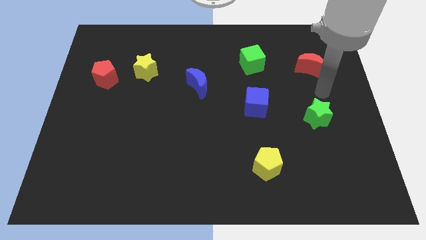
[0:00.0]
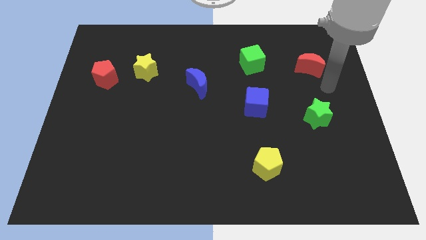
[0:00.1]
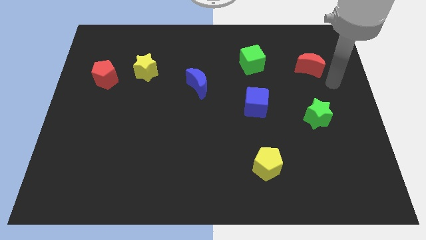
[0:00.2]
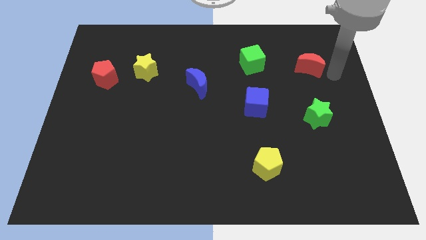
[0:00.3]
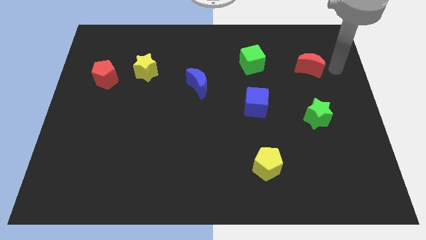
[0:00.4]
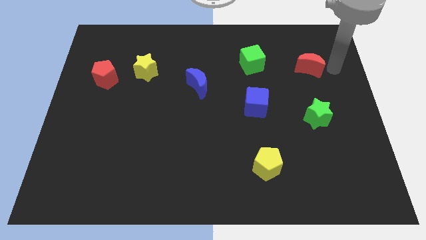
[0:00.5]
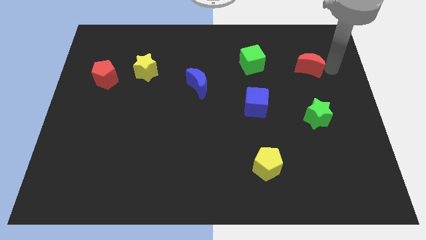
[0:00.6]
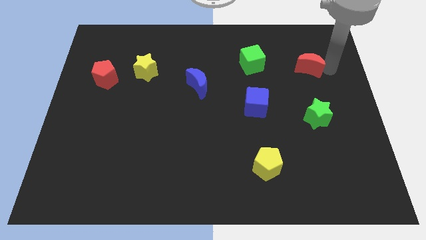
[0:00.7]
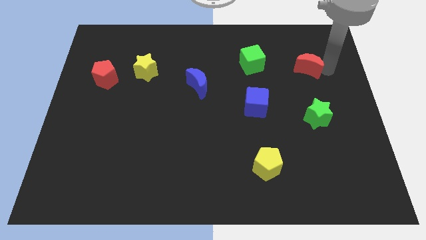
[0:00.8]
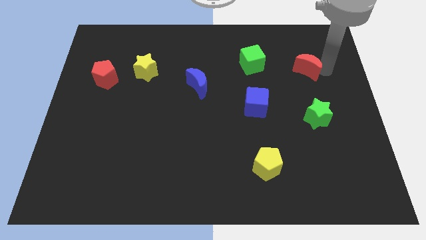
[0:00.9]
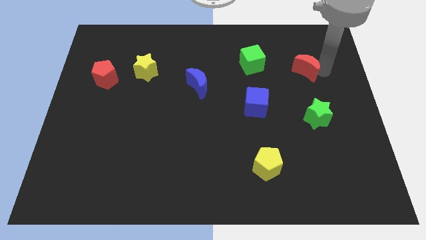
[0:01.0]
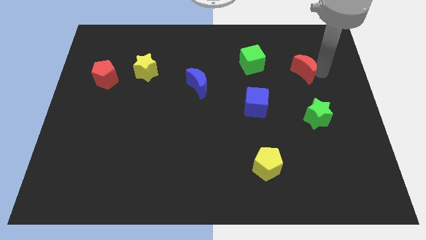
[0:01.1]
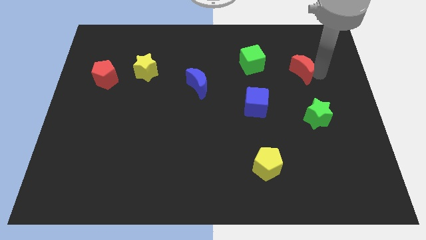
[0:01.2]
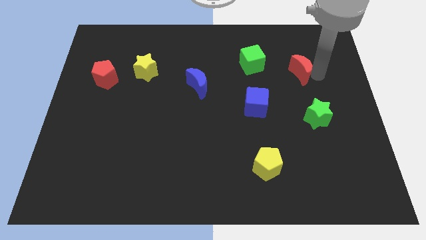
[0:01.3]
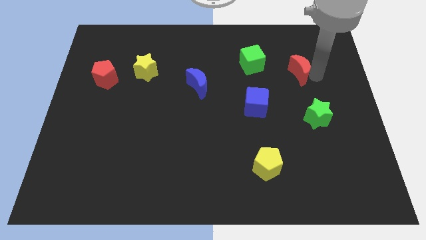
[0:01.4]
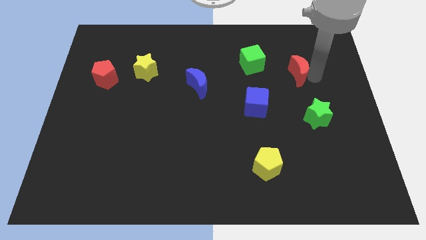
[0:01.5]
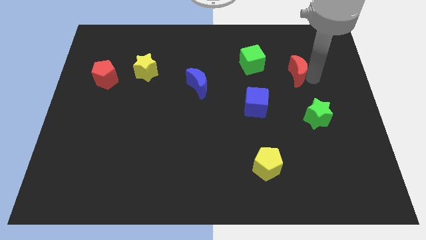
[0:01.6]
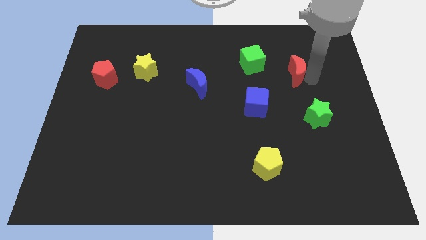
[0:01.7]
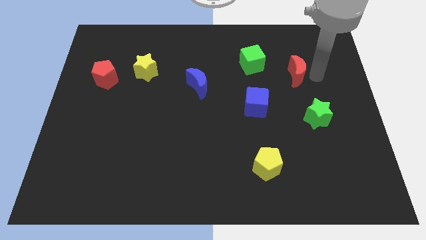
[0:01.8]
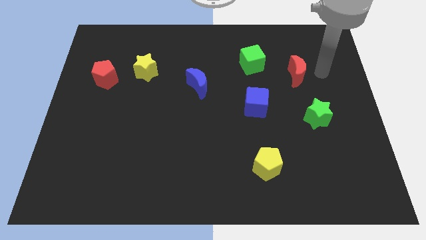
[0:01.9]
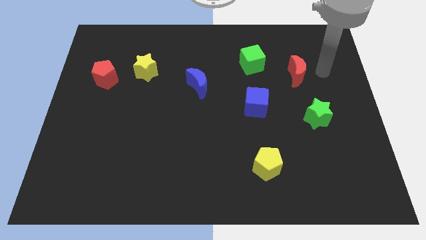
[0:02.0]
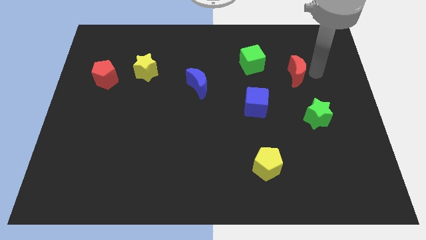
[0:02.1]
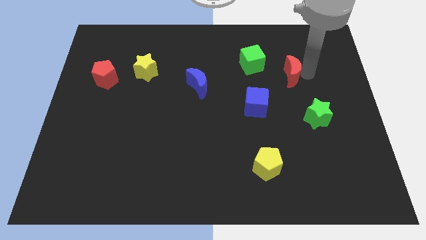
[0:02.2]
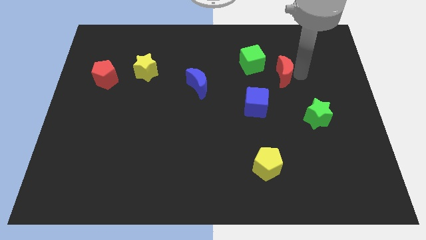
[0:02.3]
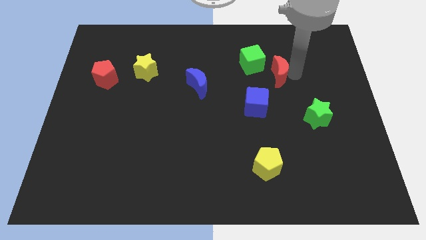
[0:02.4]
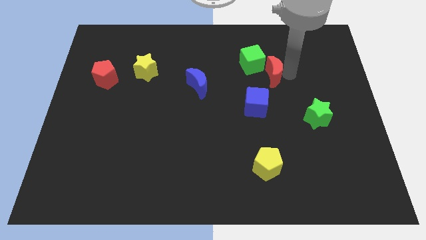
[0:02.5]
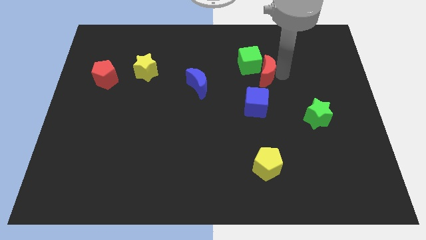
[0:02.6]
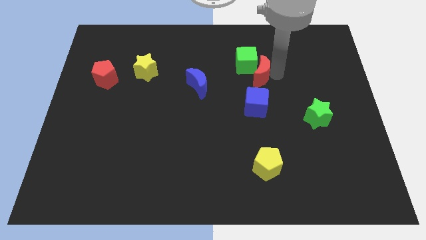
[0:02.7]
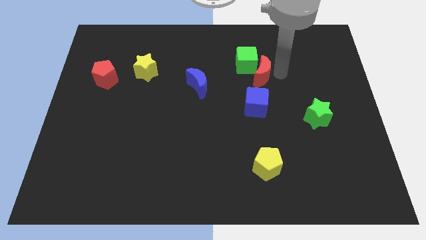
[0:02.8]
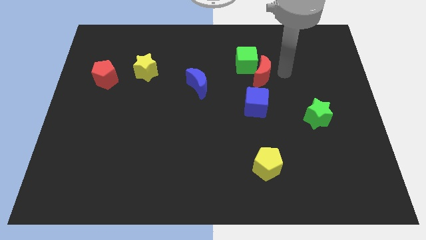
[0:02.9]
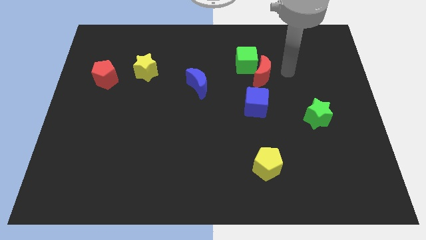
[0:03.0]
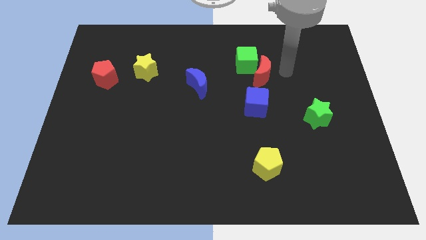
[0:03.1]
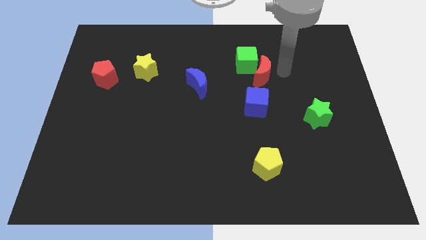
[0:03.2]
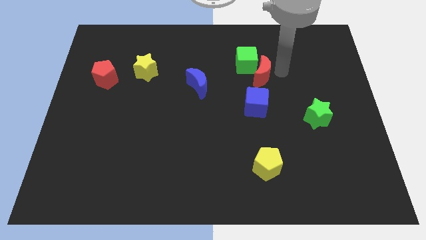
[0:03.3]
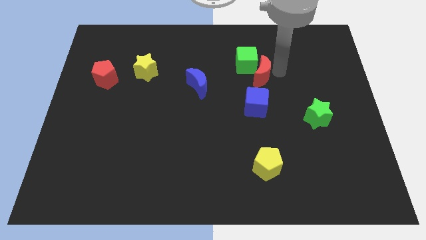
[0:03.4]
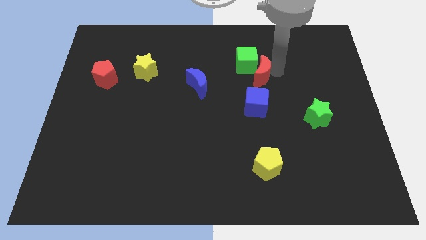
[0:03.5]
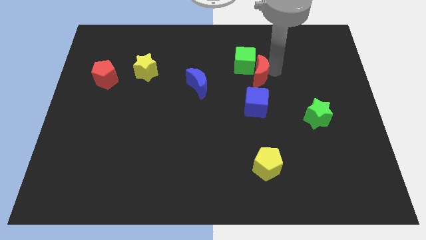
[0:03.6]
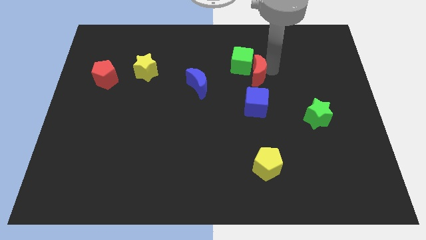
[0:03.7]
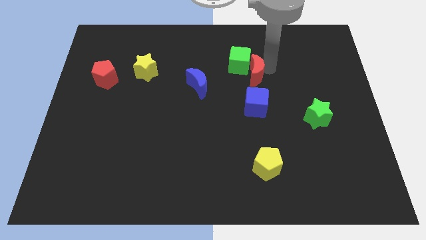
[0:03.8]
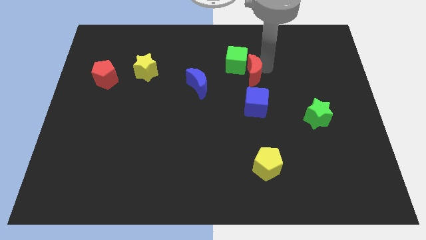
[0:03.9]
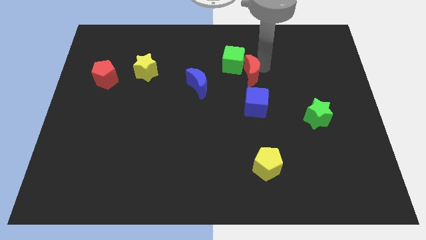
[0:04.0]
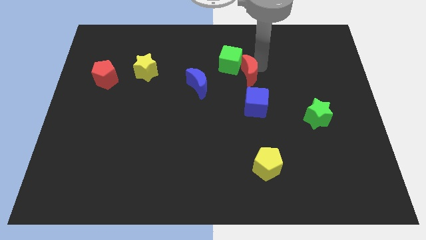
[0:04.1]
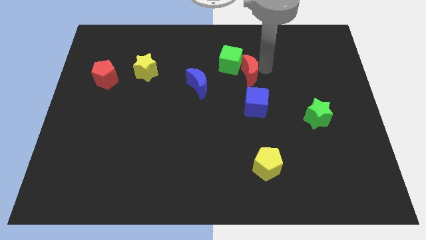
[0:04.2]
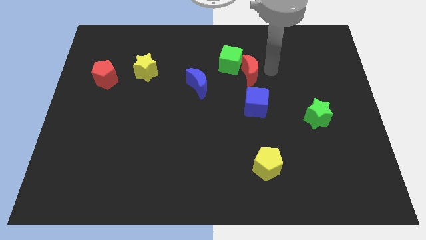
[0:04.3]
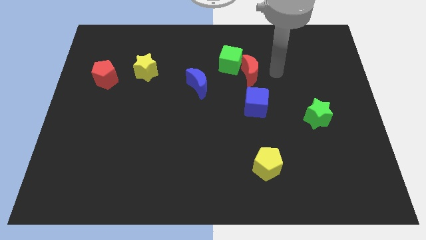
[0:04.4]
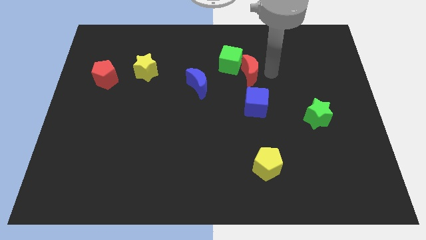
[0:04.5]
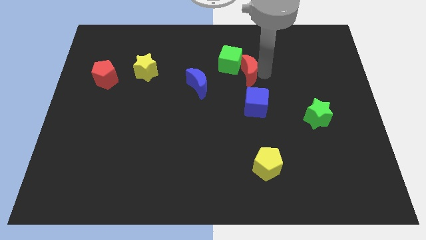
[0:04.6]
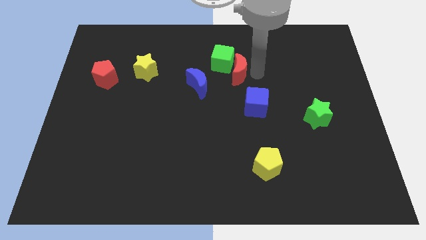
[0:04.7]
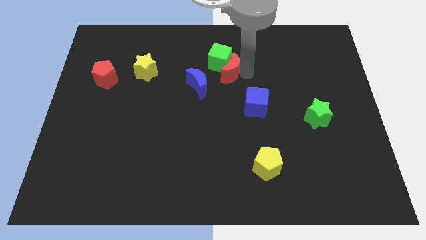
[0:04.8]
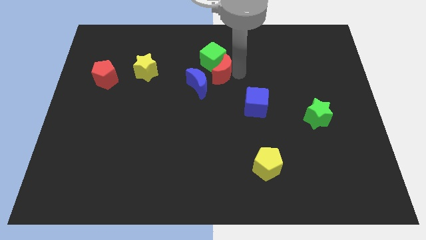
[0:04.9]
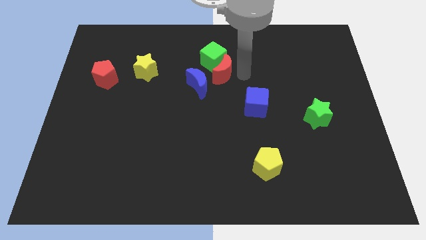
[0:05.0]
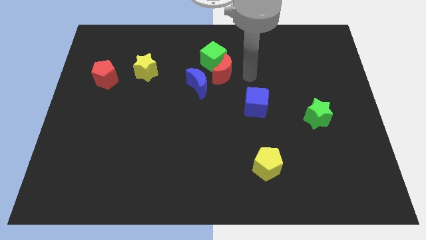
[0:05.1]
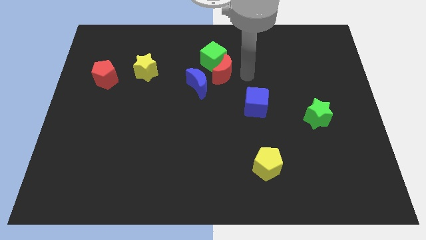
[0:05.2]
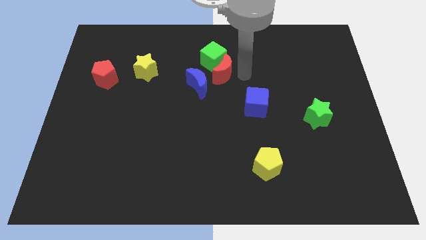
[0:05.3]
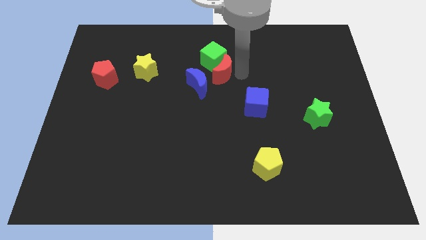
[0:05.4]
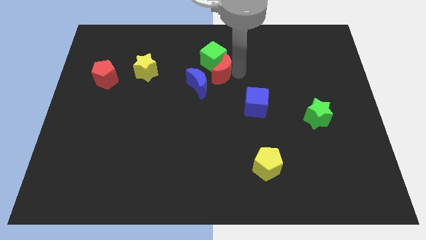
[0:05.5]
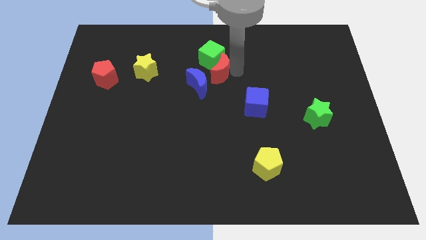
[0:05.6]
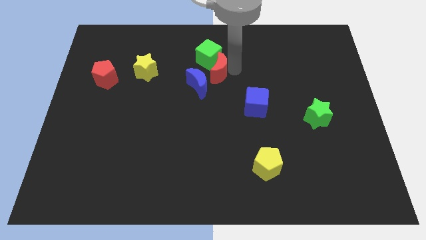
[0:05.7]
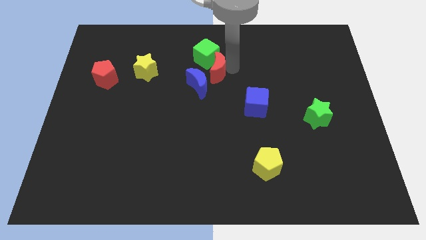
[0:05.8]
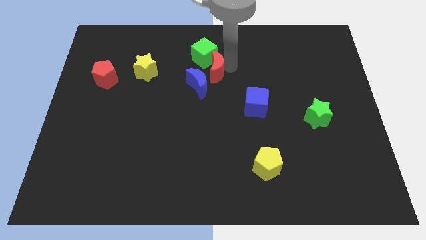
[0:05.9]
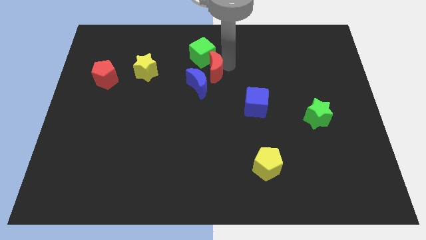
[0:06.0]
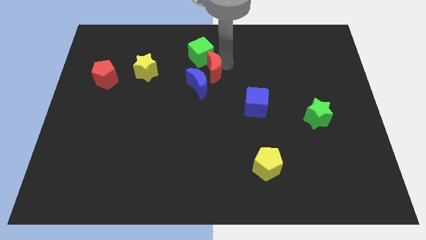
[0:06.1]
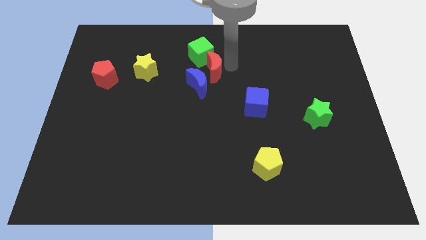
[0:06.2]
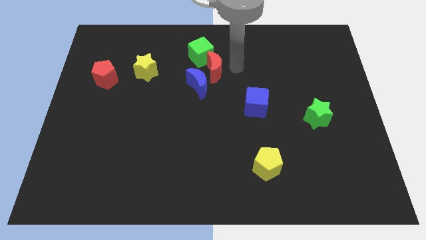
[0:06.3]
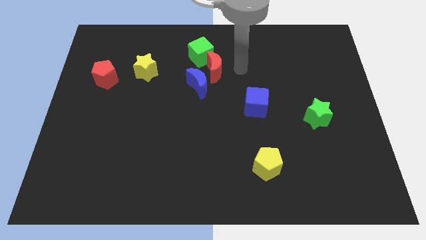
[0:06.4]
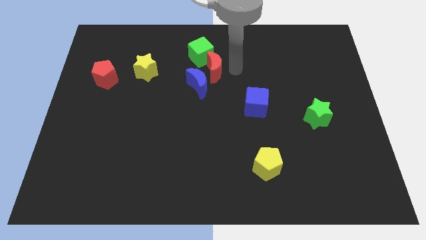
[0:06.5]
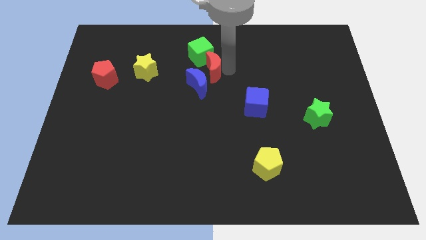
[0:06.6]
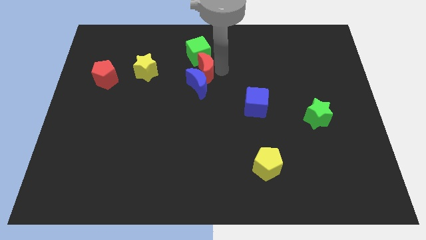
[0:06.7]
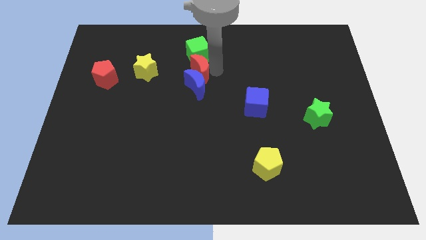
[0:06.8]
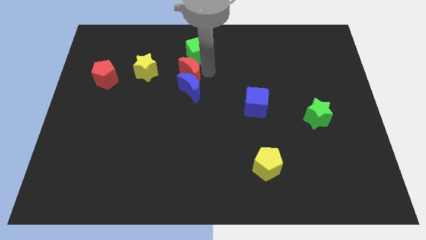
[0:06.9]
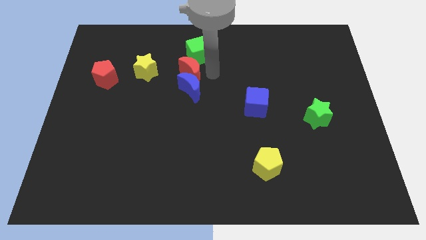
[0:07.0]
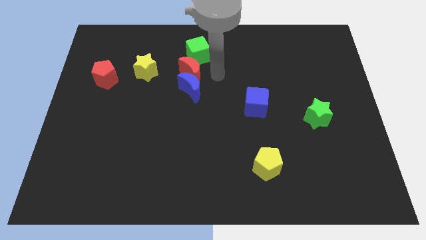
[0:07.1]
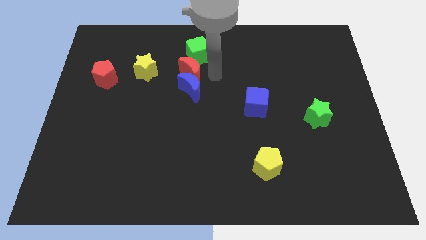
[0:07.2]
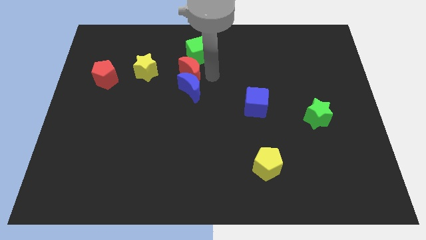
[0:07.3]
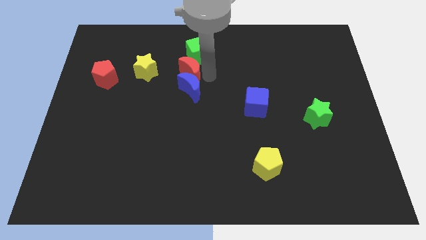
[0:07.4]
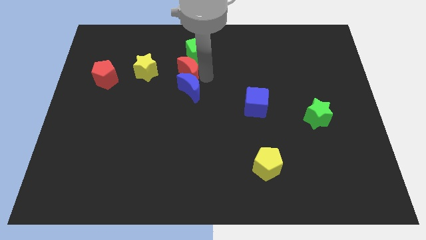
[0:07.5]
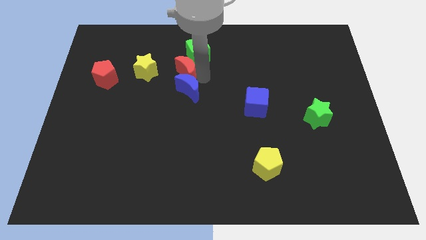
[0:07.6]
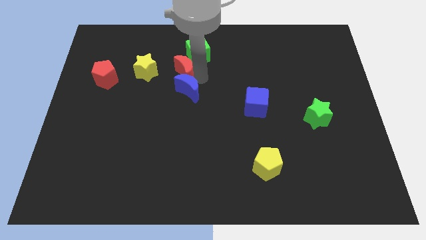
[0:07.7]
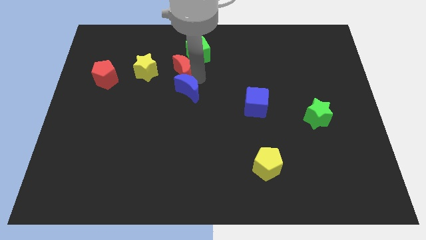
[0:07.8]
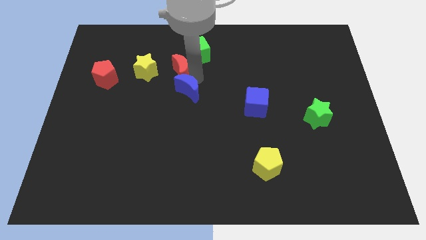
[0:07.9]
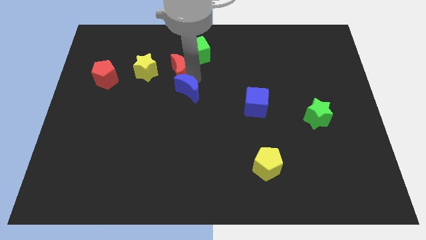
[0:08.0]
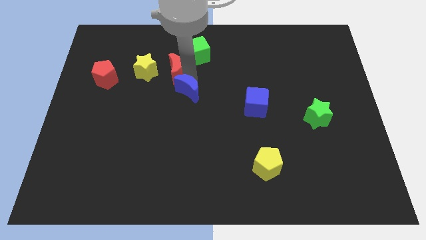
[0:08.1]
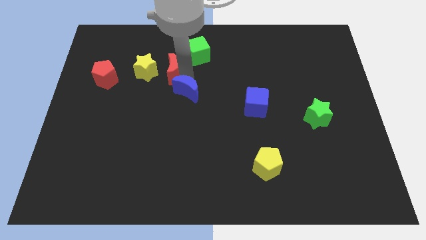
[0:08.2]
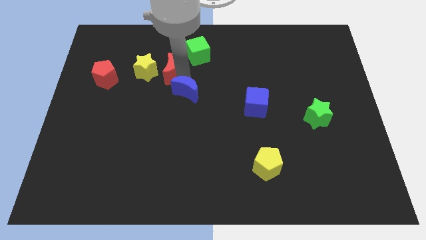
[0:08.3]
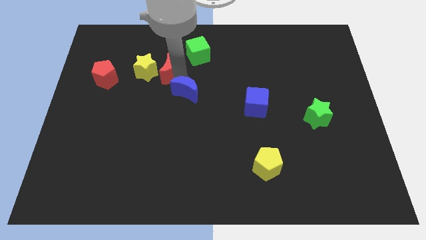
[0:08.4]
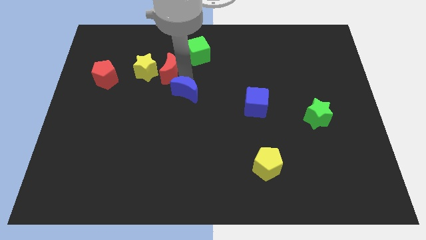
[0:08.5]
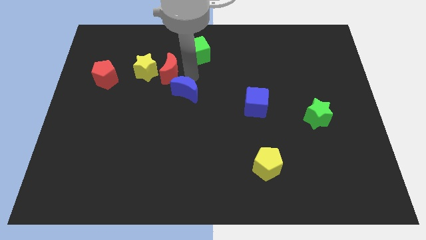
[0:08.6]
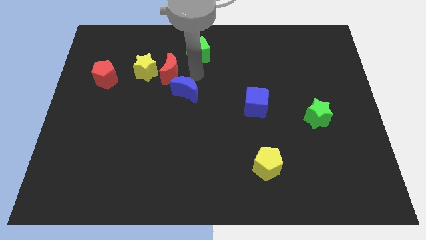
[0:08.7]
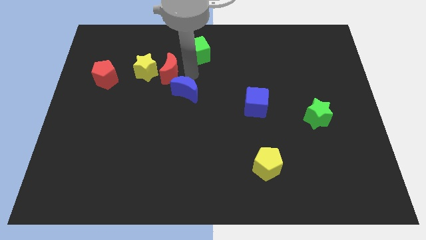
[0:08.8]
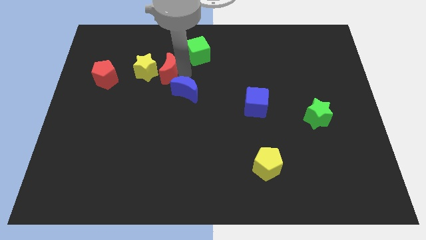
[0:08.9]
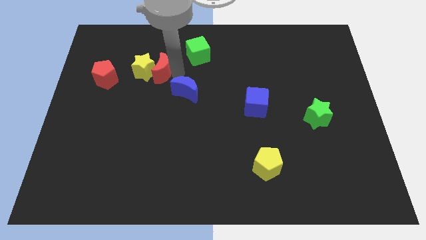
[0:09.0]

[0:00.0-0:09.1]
put the red moon towards the yellow star
